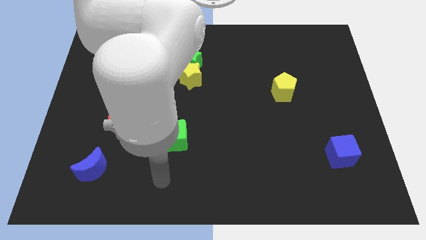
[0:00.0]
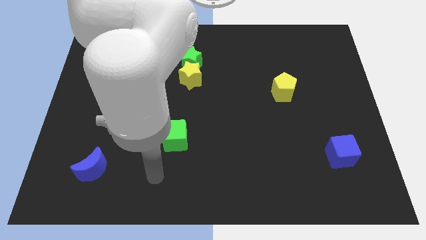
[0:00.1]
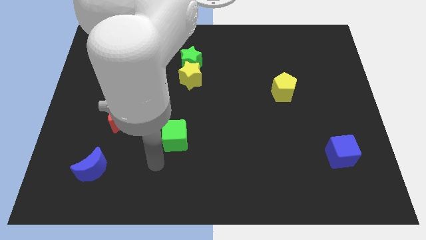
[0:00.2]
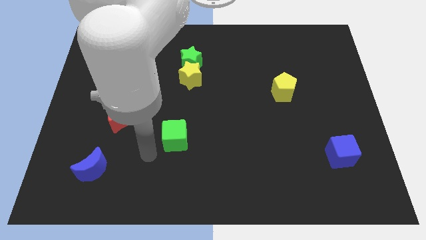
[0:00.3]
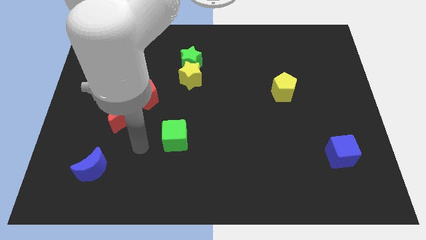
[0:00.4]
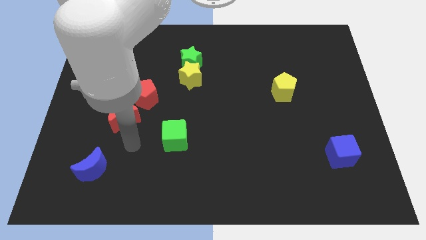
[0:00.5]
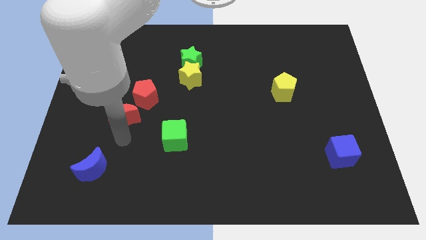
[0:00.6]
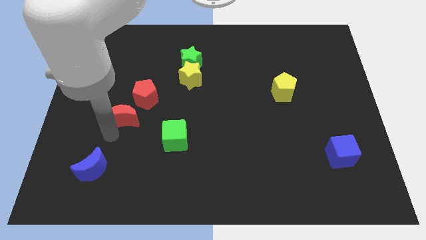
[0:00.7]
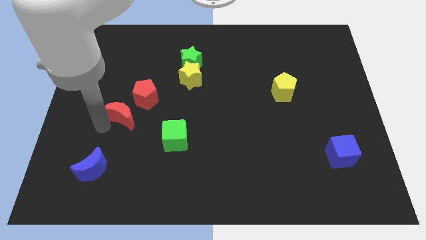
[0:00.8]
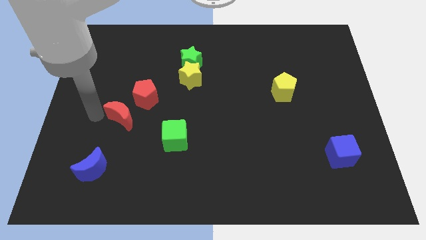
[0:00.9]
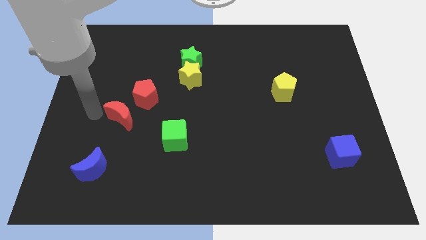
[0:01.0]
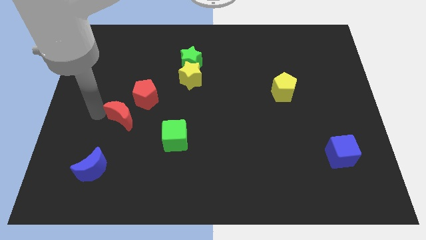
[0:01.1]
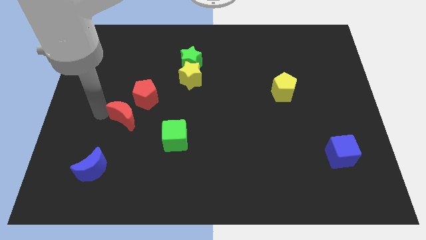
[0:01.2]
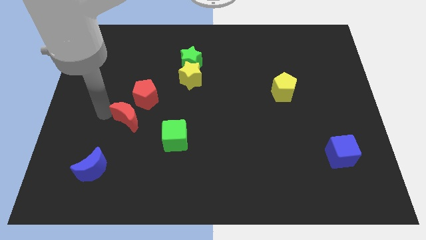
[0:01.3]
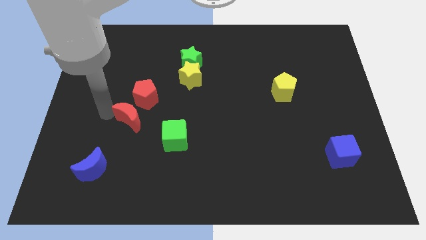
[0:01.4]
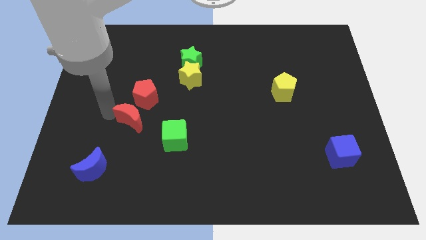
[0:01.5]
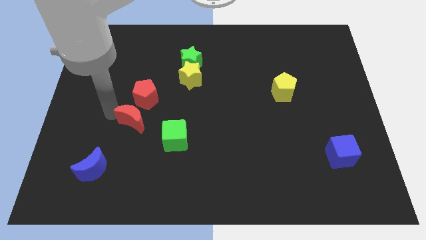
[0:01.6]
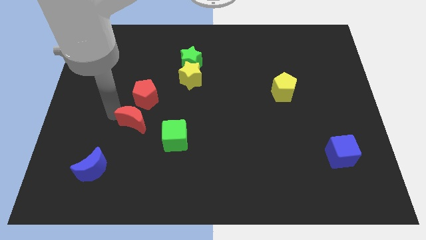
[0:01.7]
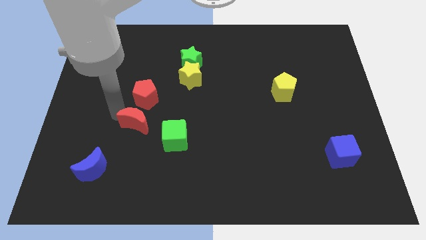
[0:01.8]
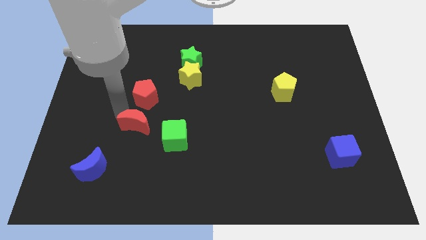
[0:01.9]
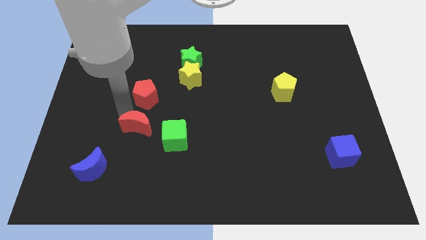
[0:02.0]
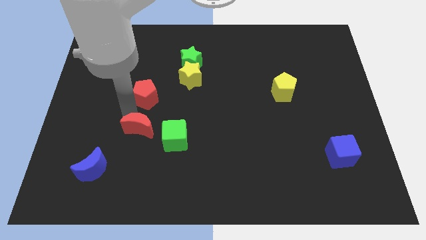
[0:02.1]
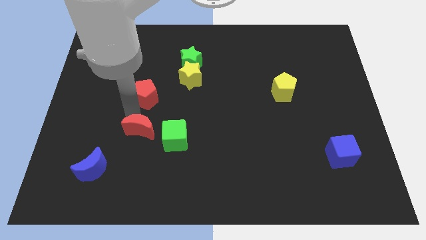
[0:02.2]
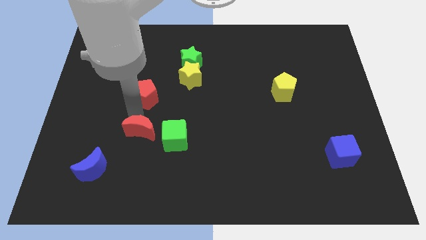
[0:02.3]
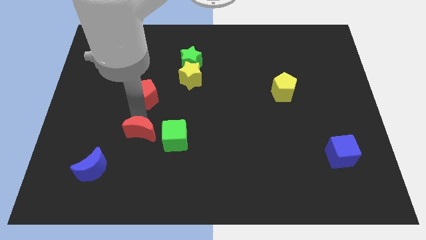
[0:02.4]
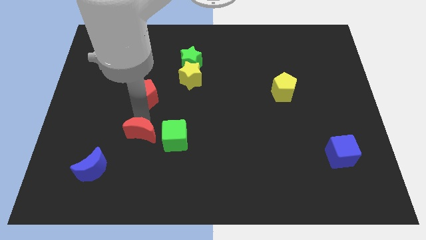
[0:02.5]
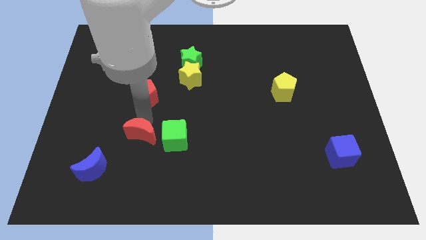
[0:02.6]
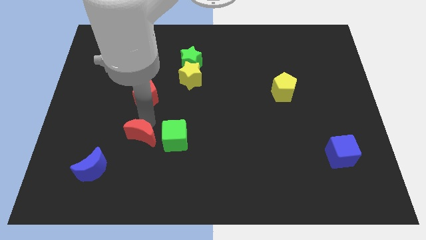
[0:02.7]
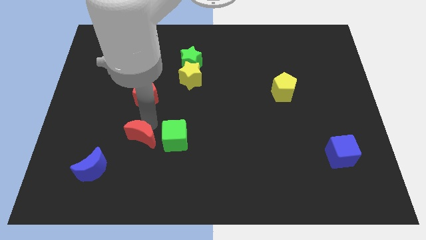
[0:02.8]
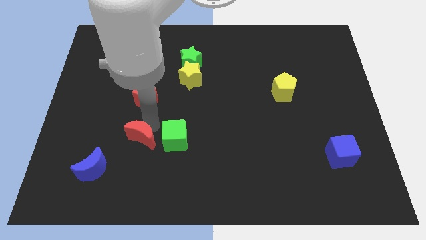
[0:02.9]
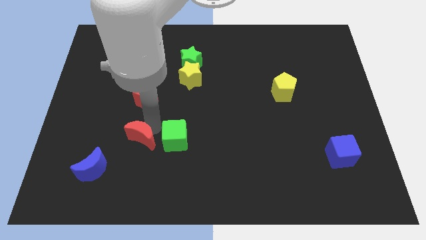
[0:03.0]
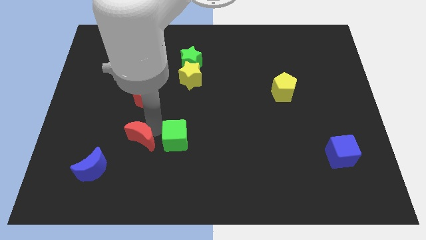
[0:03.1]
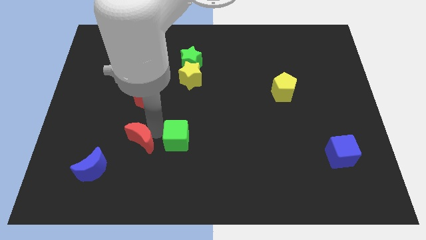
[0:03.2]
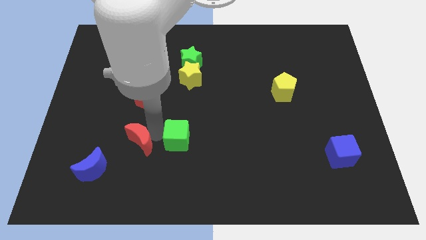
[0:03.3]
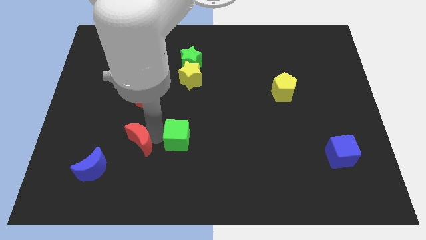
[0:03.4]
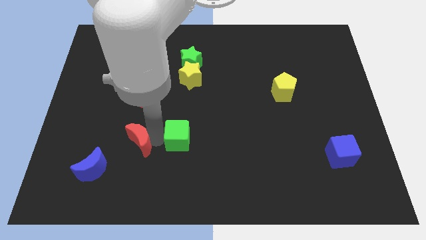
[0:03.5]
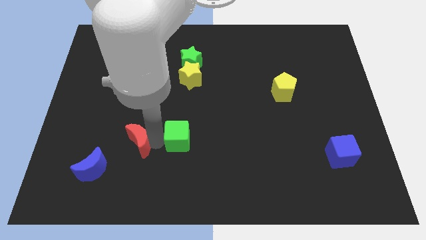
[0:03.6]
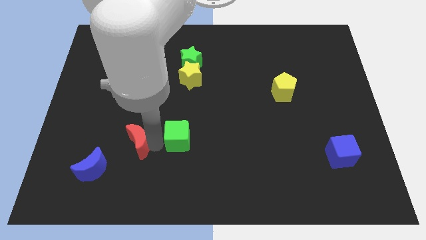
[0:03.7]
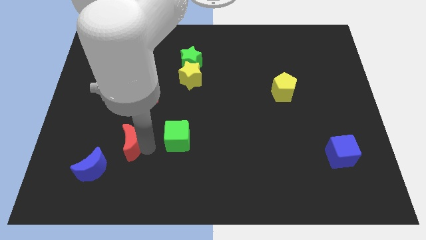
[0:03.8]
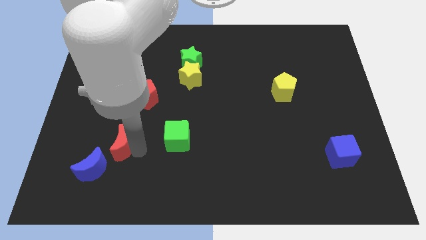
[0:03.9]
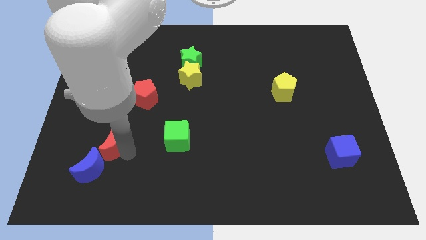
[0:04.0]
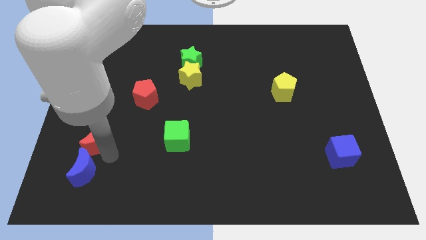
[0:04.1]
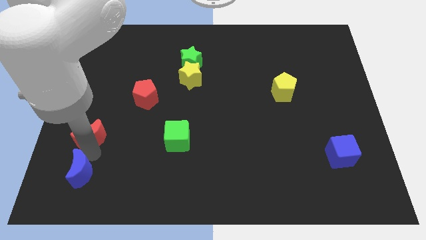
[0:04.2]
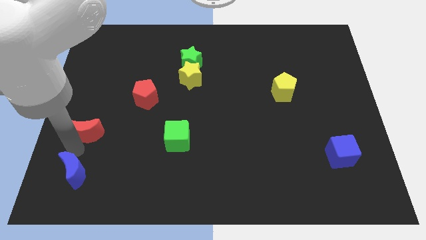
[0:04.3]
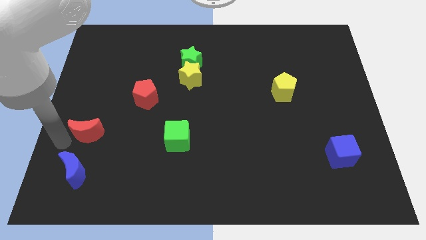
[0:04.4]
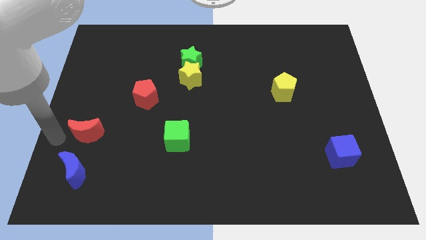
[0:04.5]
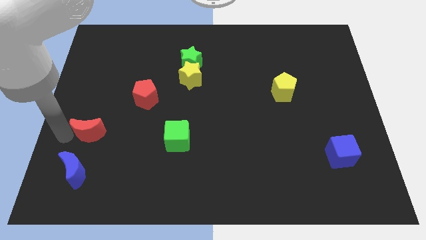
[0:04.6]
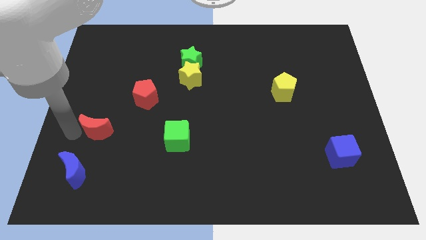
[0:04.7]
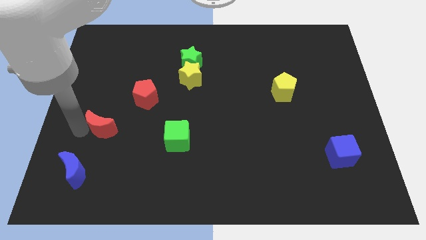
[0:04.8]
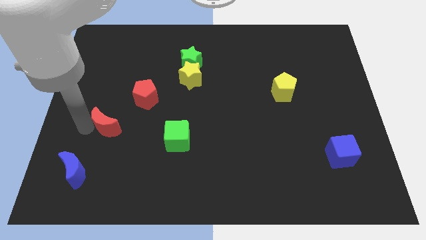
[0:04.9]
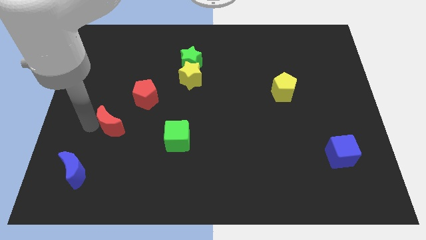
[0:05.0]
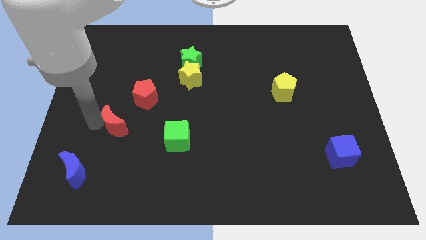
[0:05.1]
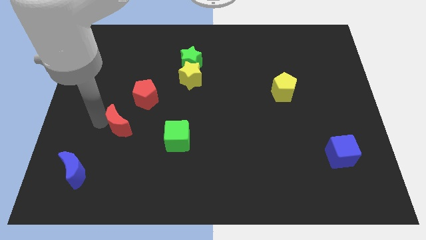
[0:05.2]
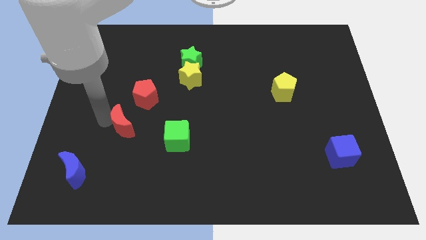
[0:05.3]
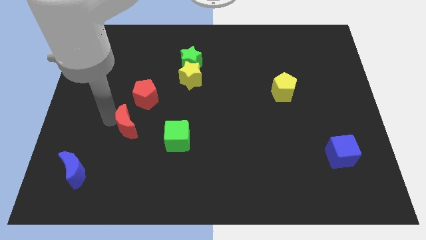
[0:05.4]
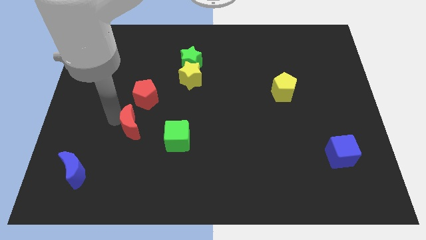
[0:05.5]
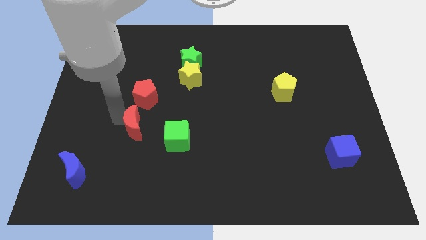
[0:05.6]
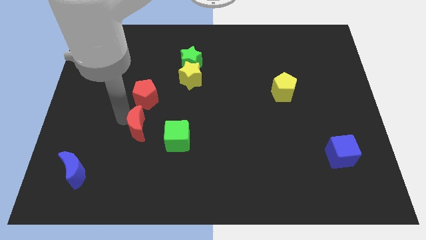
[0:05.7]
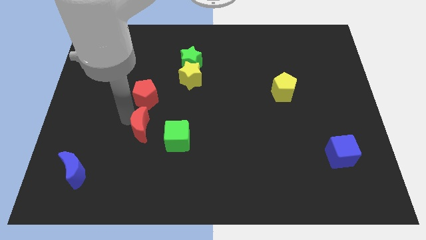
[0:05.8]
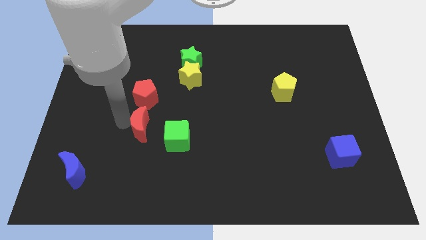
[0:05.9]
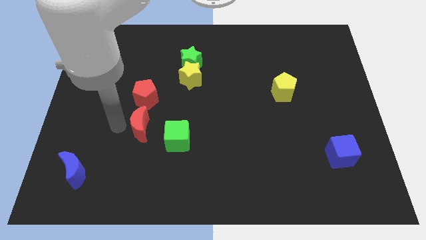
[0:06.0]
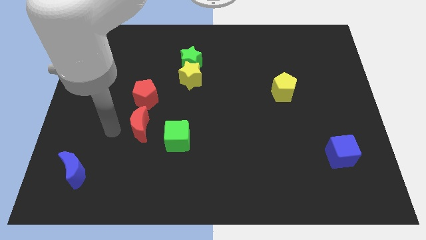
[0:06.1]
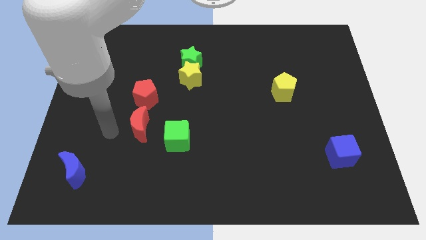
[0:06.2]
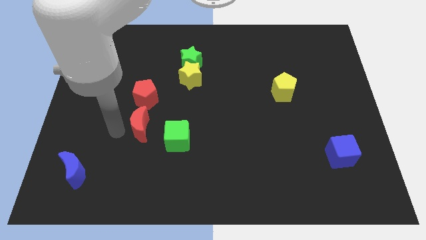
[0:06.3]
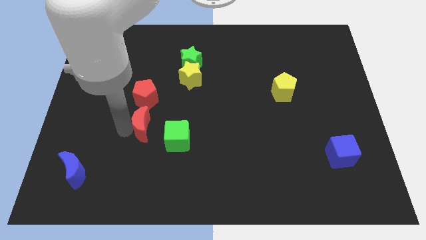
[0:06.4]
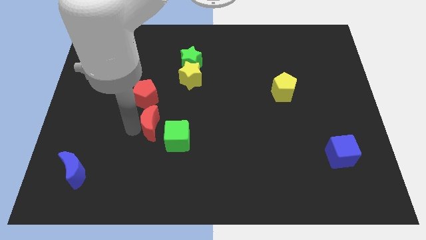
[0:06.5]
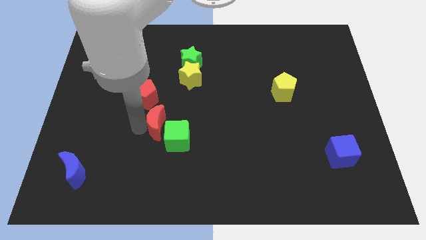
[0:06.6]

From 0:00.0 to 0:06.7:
push the red moon to the right a little bit

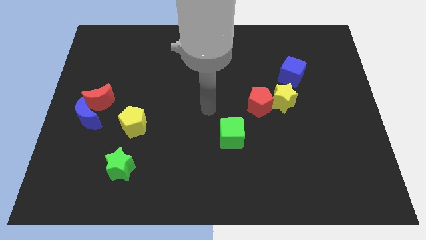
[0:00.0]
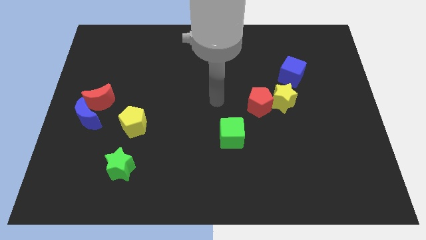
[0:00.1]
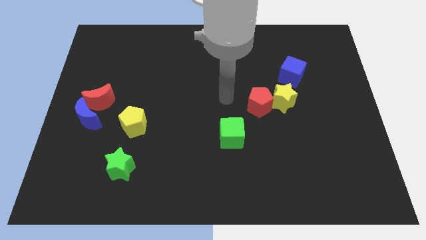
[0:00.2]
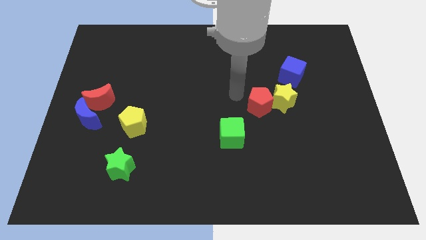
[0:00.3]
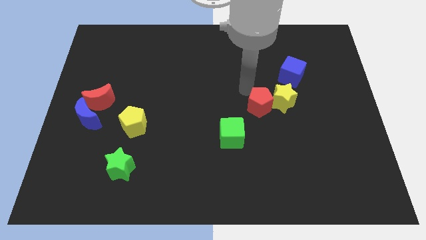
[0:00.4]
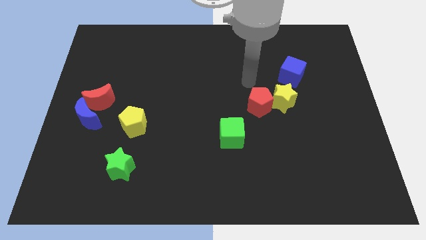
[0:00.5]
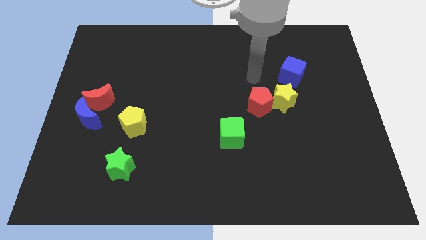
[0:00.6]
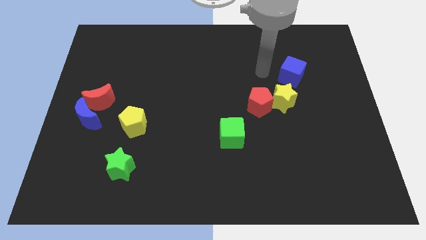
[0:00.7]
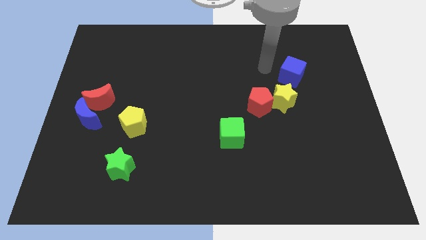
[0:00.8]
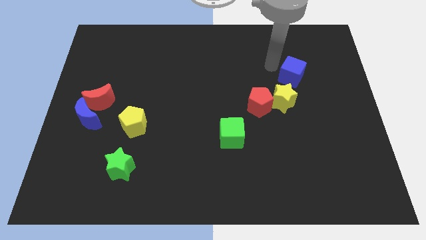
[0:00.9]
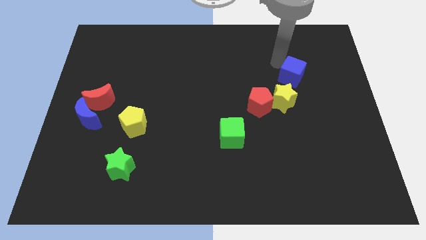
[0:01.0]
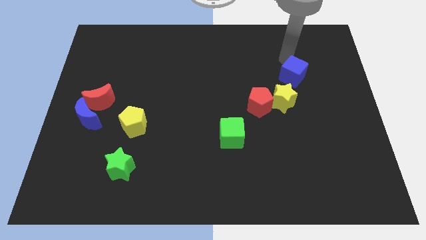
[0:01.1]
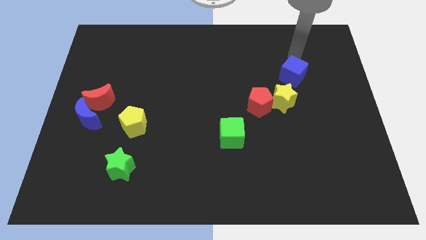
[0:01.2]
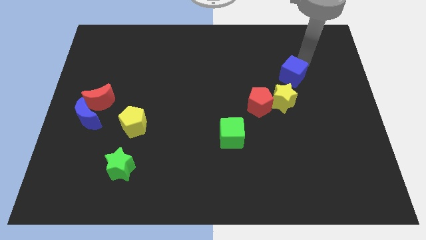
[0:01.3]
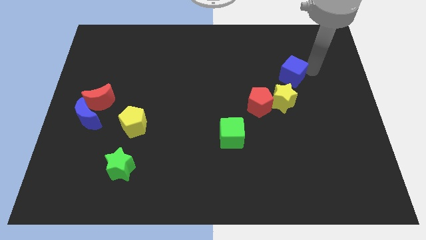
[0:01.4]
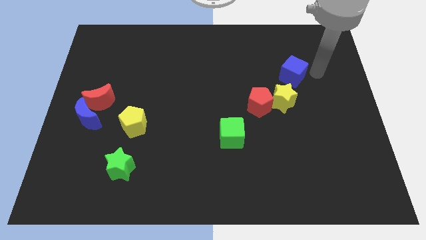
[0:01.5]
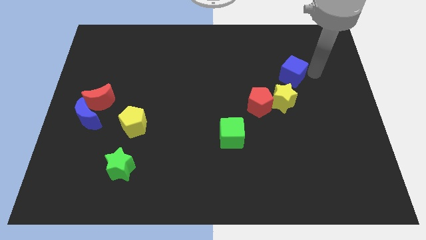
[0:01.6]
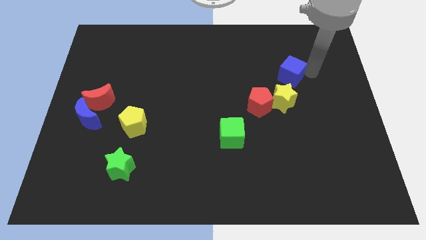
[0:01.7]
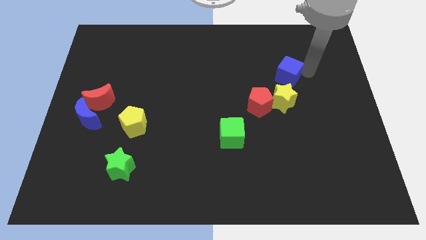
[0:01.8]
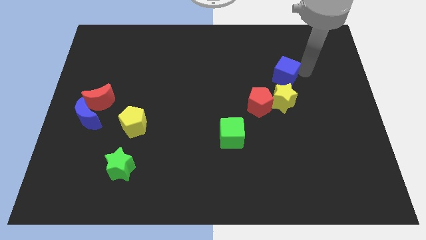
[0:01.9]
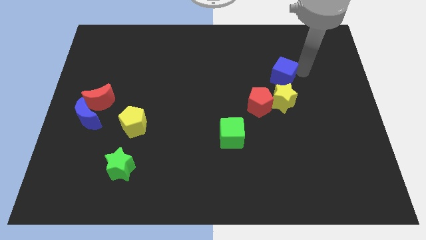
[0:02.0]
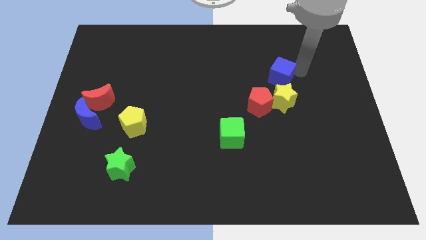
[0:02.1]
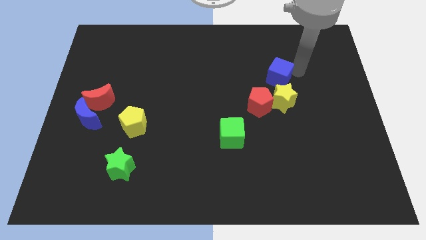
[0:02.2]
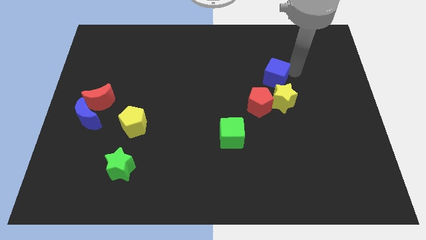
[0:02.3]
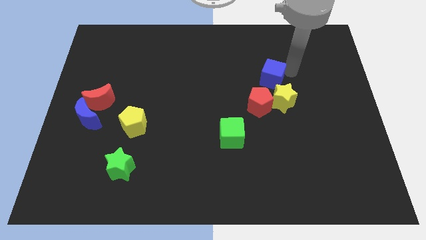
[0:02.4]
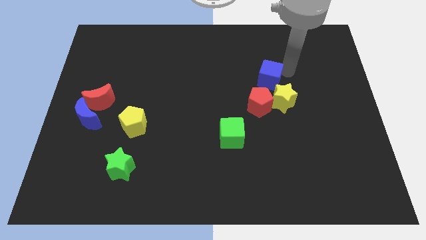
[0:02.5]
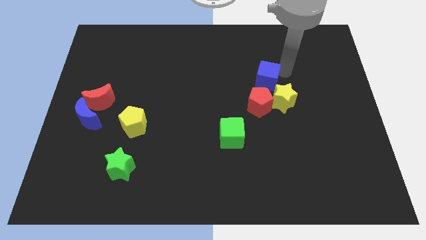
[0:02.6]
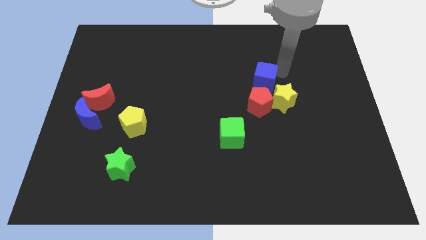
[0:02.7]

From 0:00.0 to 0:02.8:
slightly push the blue cube to the left
